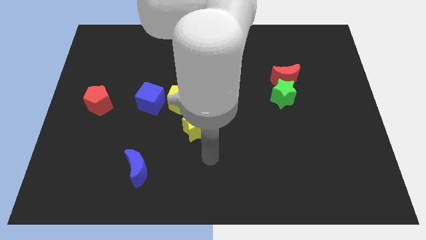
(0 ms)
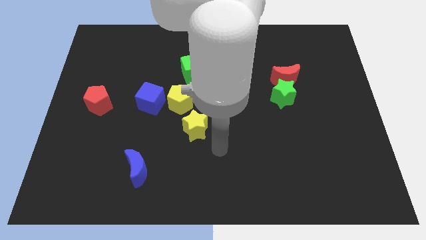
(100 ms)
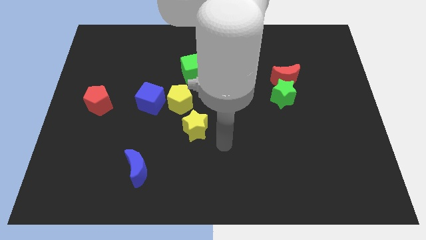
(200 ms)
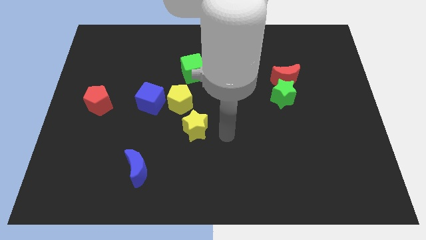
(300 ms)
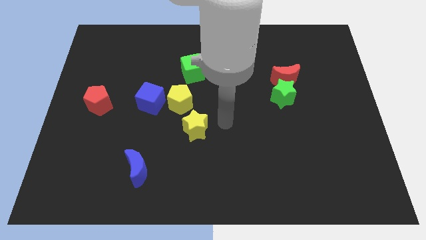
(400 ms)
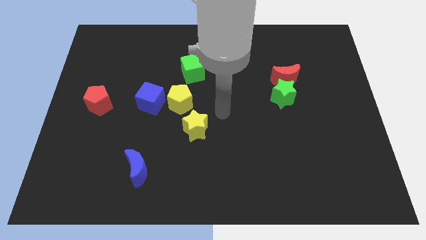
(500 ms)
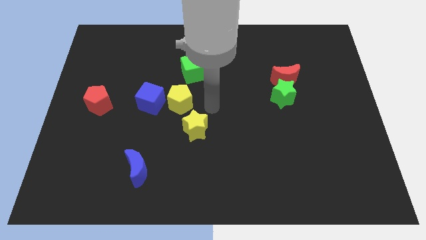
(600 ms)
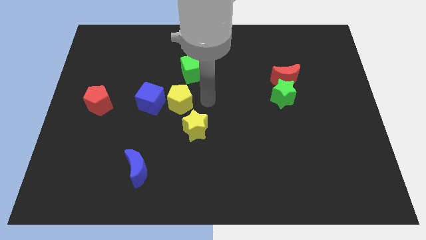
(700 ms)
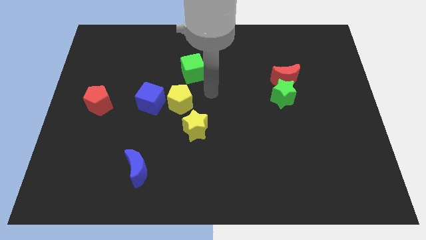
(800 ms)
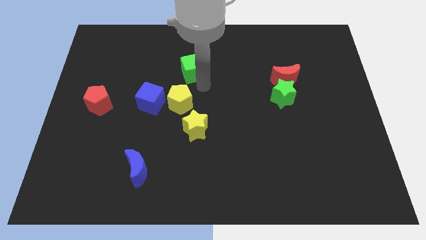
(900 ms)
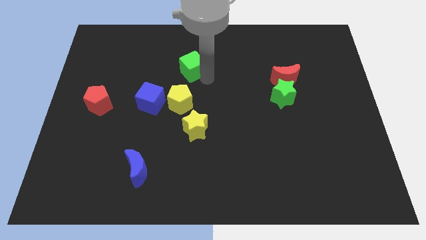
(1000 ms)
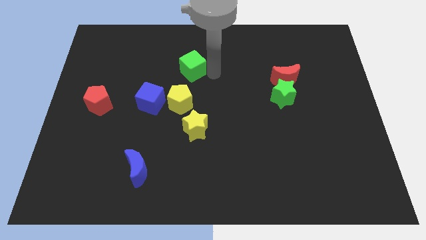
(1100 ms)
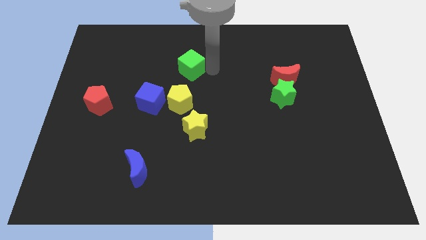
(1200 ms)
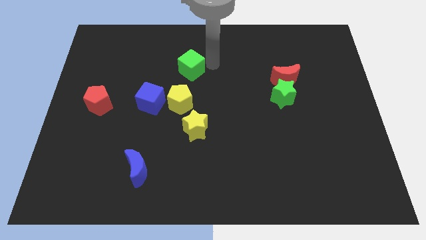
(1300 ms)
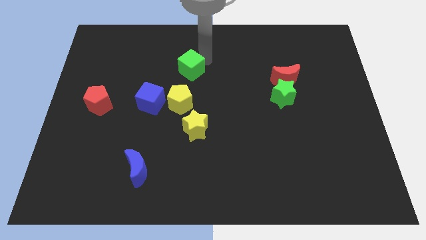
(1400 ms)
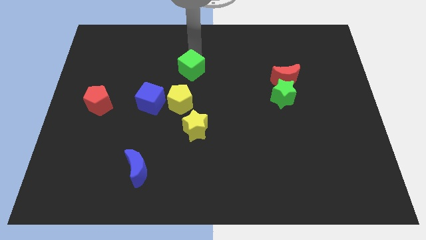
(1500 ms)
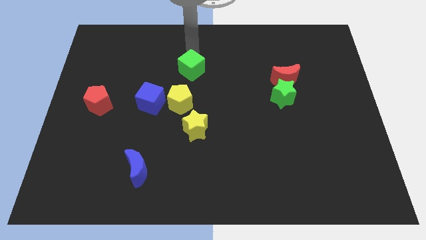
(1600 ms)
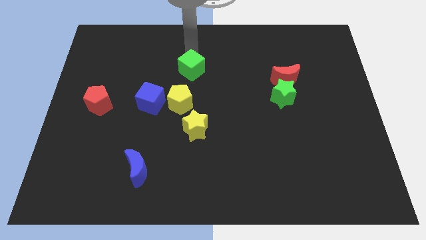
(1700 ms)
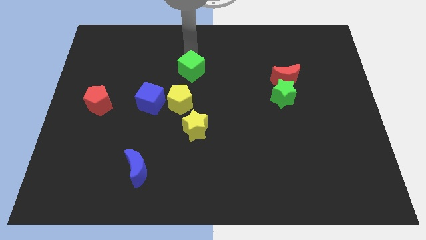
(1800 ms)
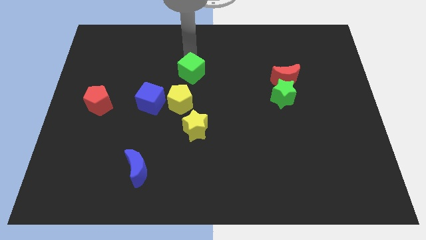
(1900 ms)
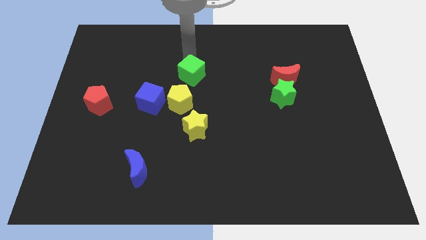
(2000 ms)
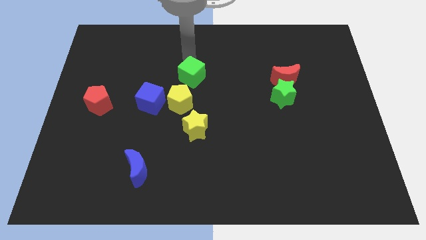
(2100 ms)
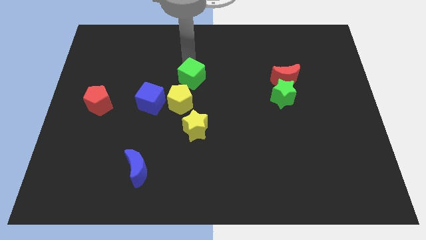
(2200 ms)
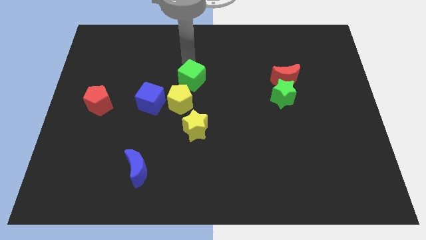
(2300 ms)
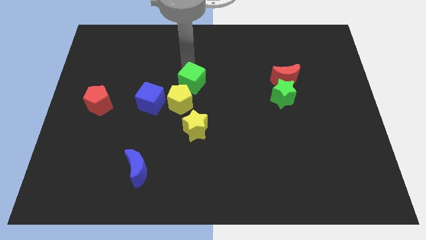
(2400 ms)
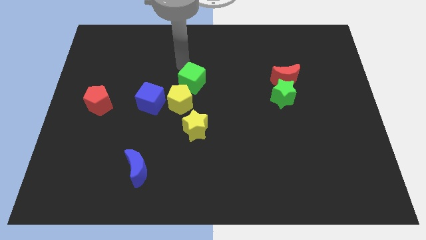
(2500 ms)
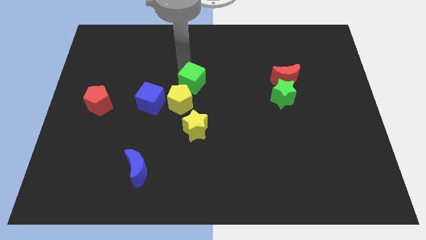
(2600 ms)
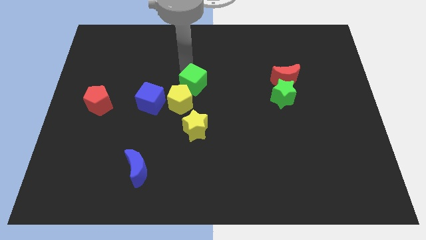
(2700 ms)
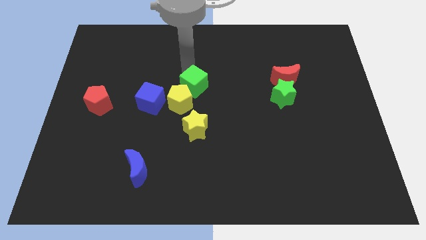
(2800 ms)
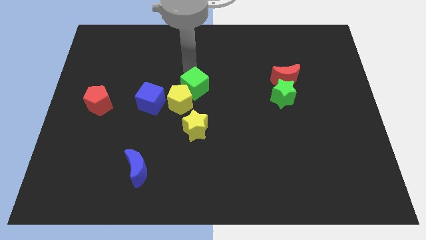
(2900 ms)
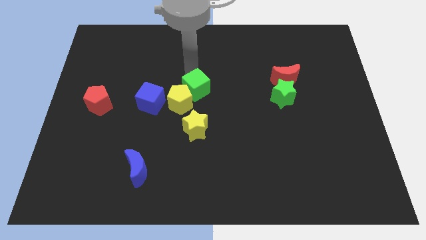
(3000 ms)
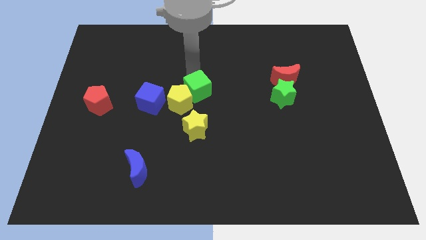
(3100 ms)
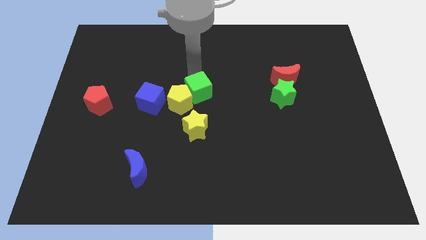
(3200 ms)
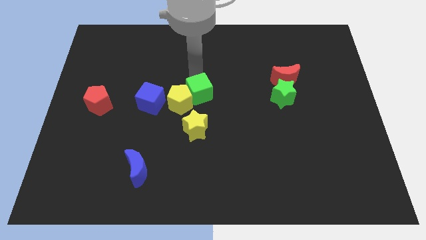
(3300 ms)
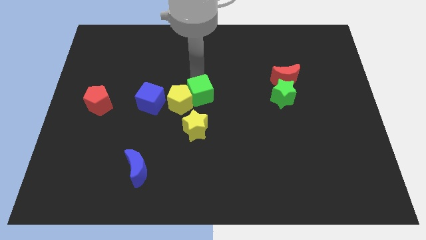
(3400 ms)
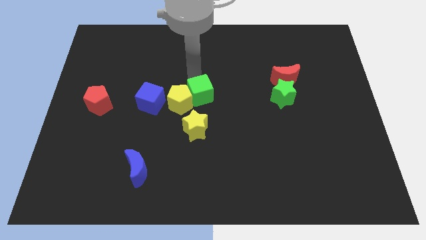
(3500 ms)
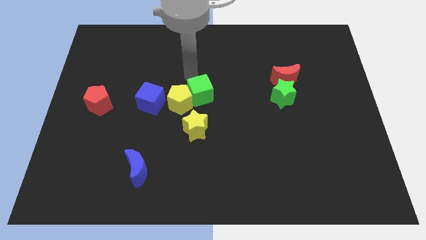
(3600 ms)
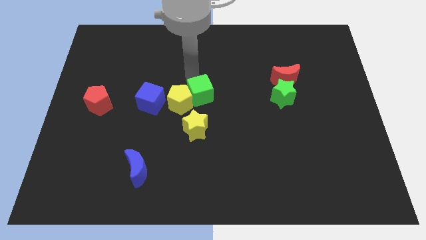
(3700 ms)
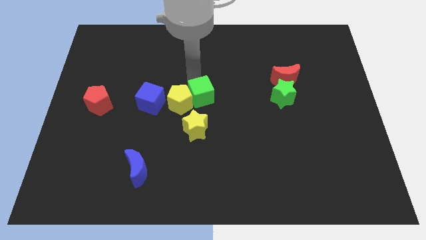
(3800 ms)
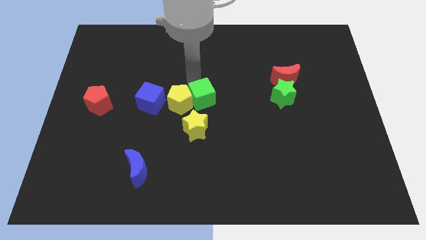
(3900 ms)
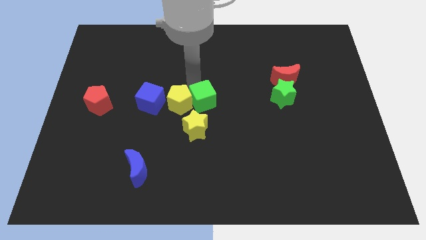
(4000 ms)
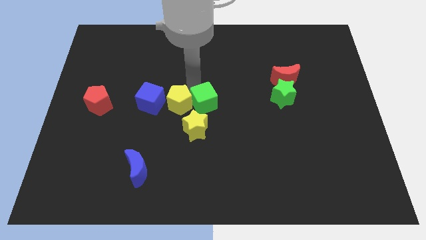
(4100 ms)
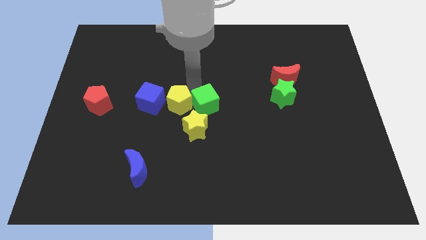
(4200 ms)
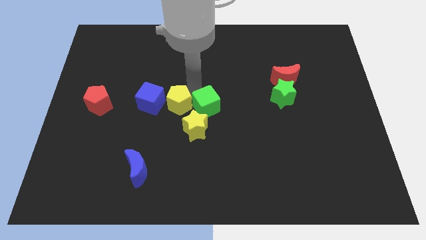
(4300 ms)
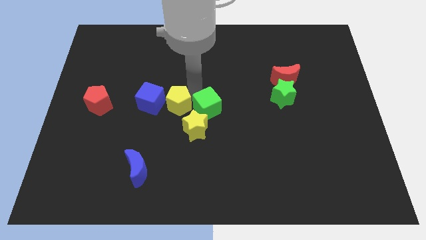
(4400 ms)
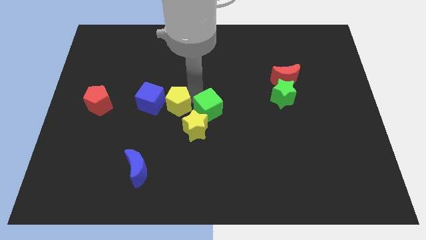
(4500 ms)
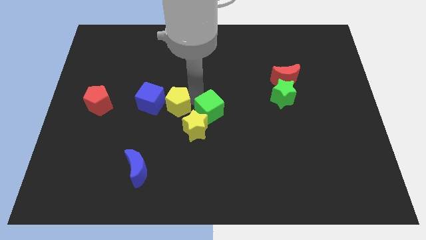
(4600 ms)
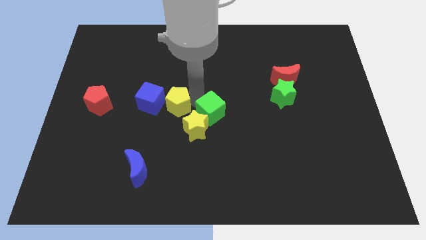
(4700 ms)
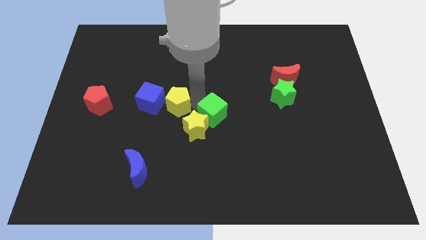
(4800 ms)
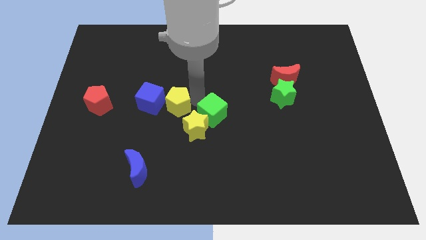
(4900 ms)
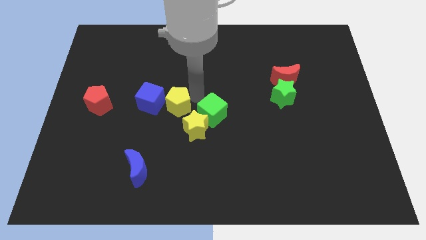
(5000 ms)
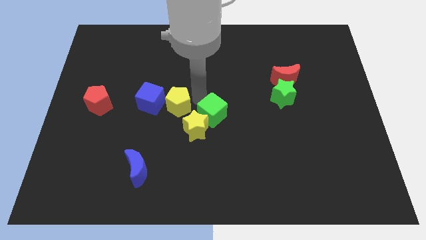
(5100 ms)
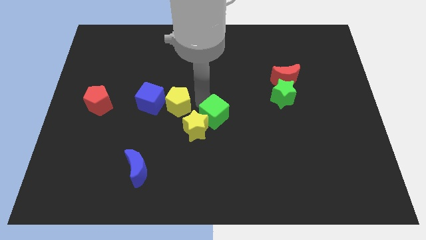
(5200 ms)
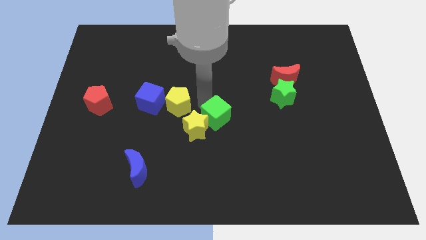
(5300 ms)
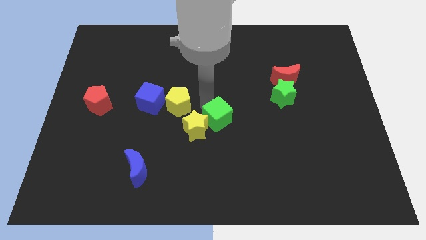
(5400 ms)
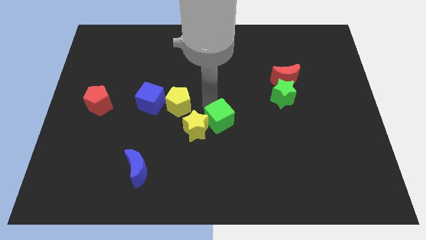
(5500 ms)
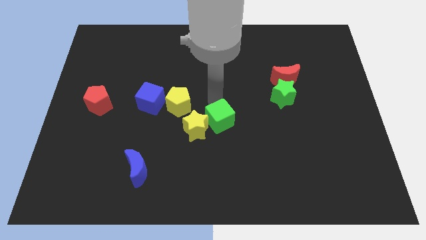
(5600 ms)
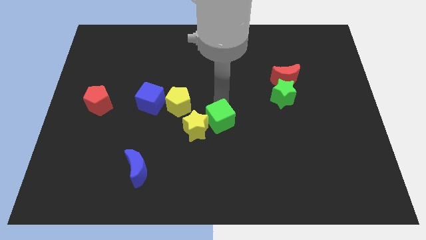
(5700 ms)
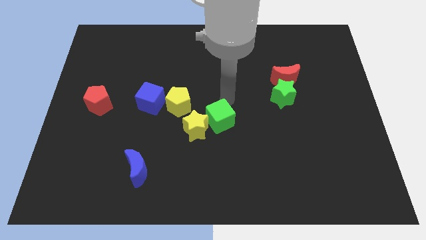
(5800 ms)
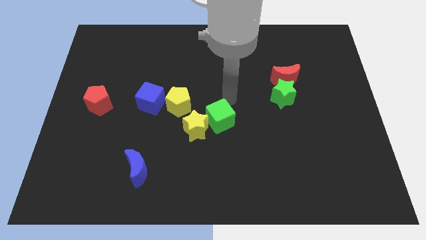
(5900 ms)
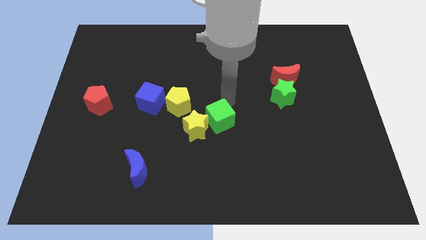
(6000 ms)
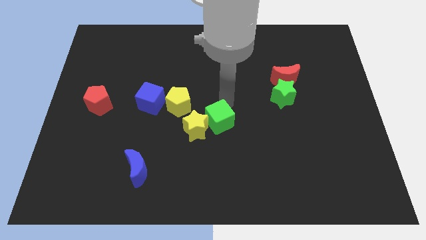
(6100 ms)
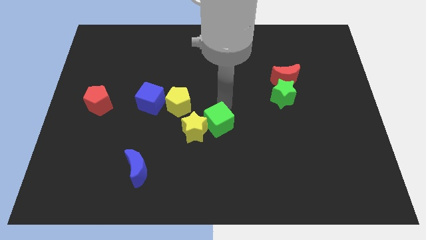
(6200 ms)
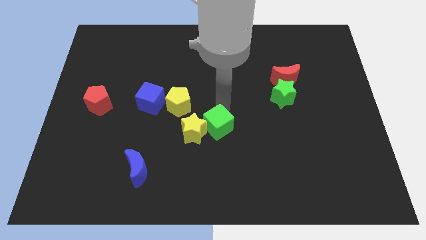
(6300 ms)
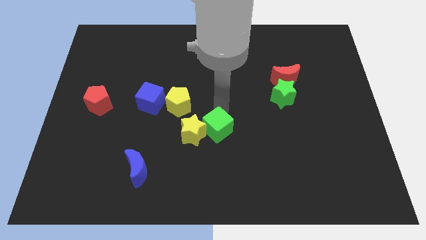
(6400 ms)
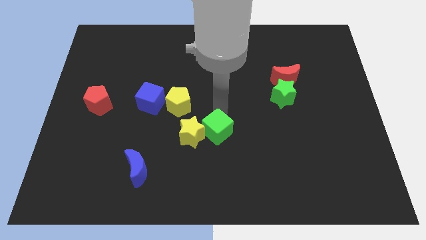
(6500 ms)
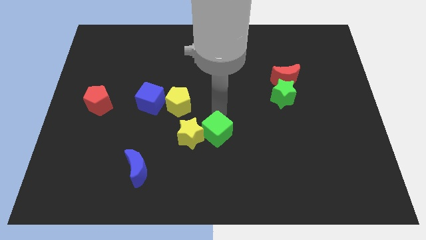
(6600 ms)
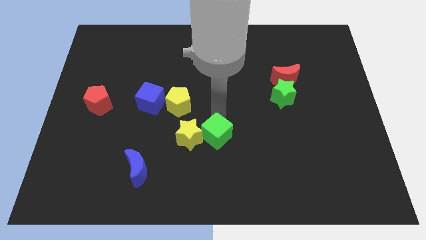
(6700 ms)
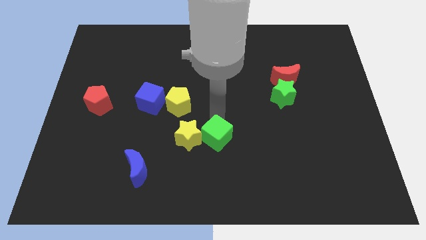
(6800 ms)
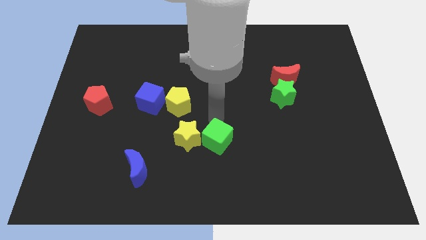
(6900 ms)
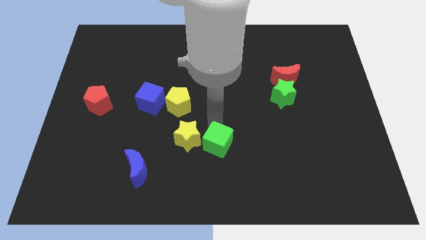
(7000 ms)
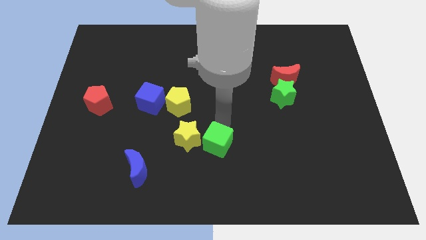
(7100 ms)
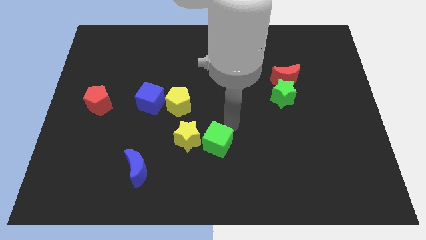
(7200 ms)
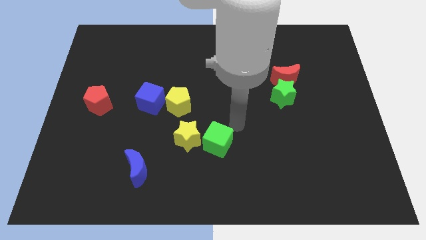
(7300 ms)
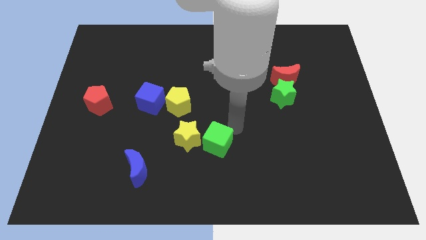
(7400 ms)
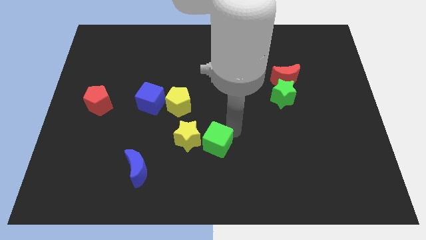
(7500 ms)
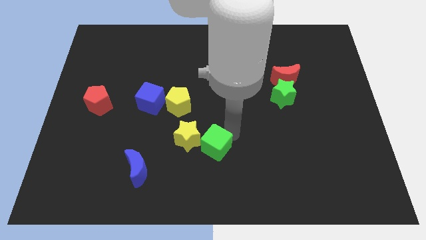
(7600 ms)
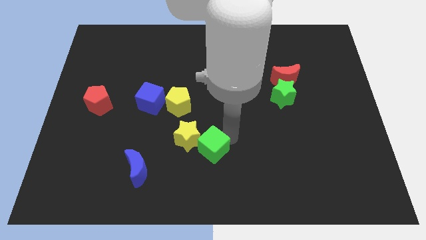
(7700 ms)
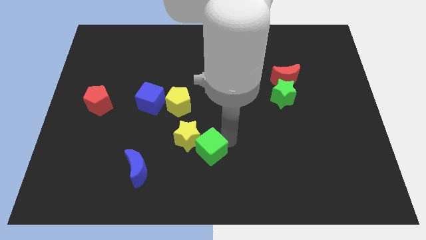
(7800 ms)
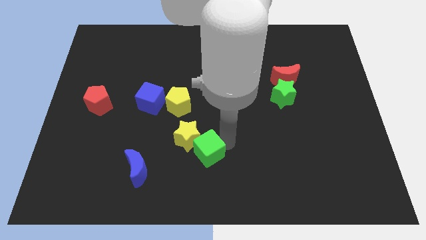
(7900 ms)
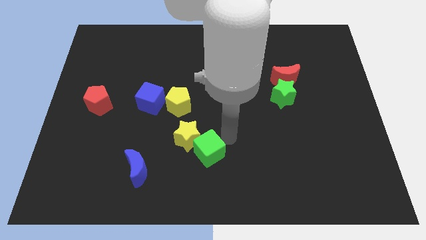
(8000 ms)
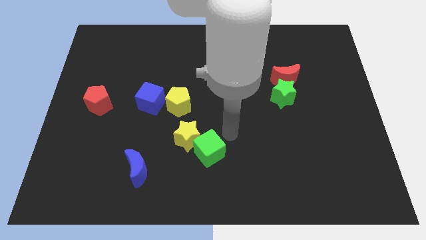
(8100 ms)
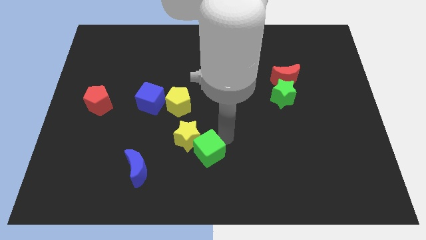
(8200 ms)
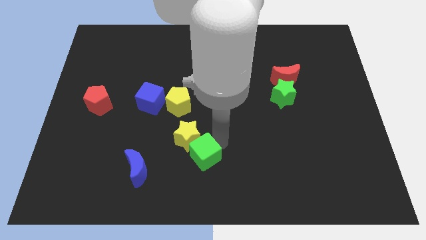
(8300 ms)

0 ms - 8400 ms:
move the green cube to the right side of the blue moon
